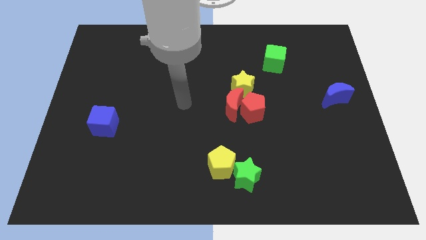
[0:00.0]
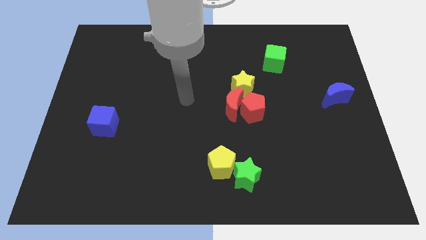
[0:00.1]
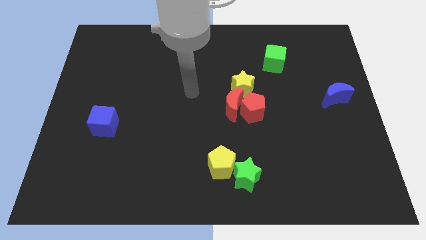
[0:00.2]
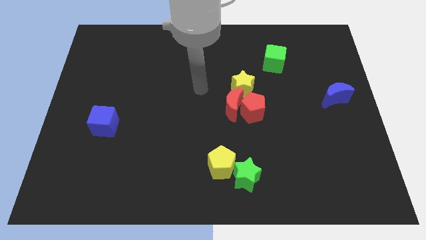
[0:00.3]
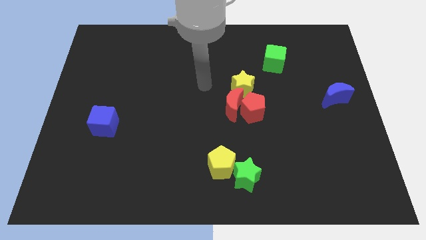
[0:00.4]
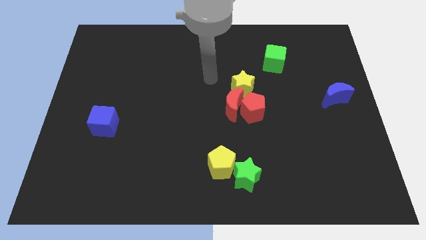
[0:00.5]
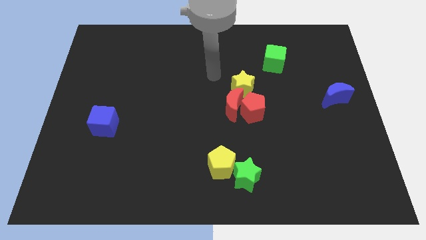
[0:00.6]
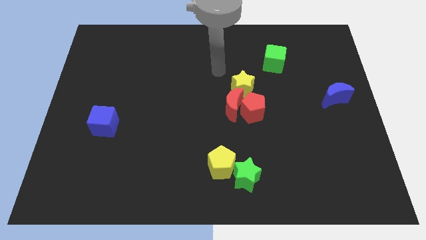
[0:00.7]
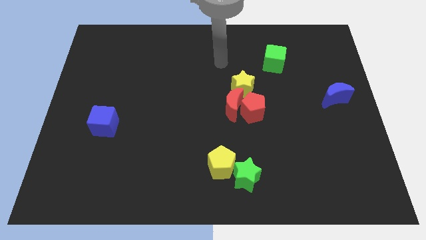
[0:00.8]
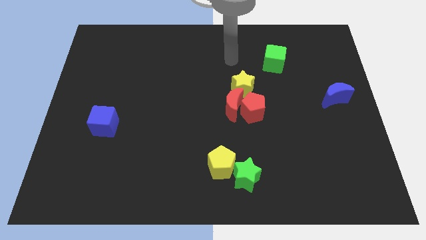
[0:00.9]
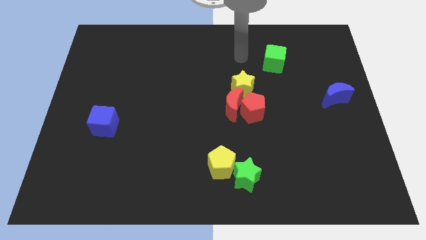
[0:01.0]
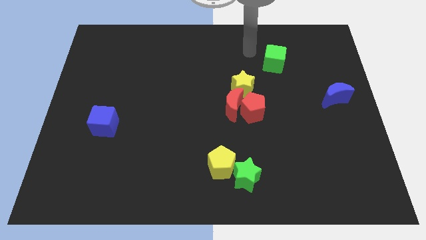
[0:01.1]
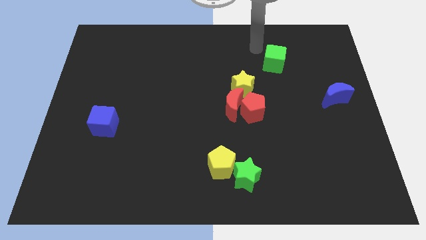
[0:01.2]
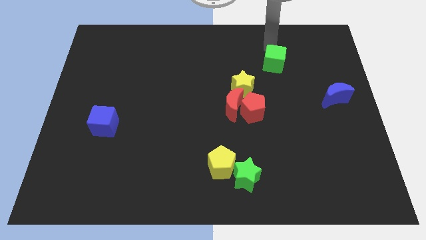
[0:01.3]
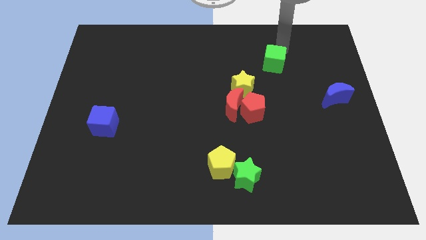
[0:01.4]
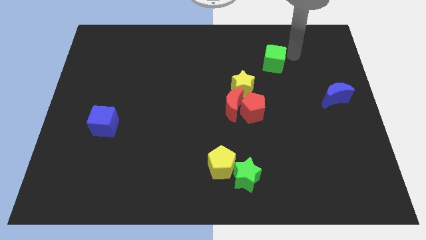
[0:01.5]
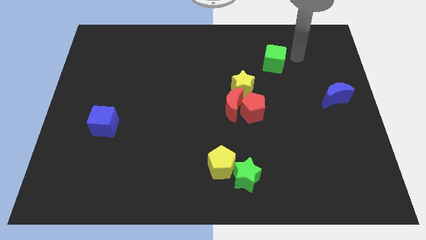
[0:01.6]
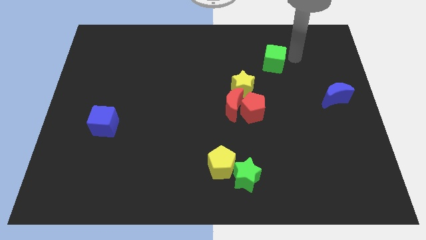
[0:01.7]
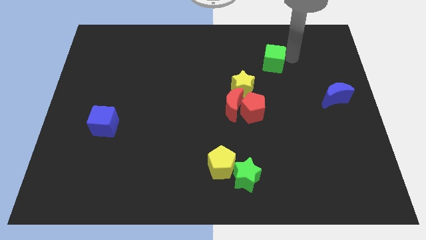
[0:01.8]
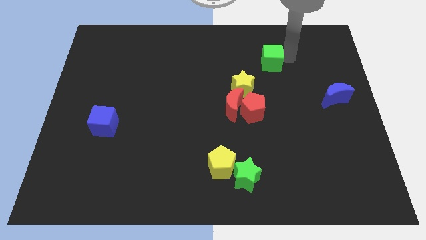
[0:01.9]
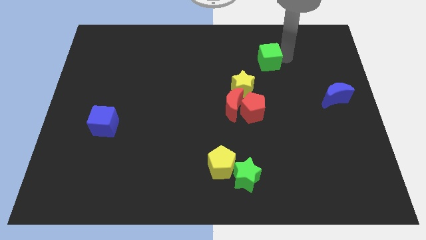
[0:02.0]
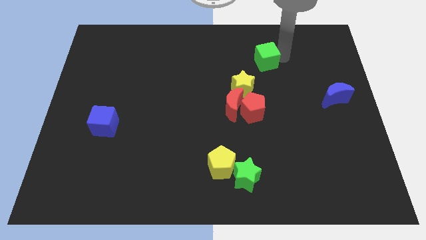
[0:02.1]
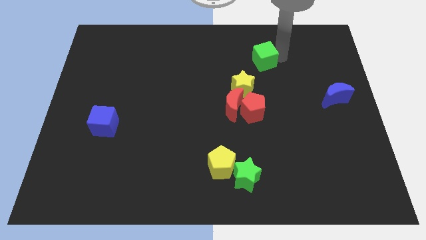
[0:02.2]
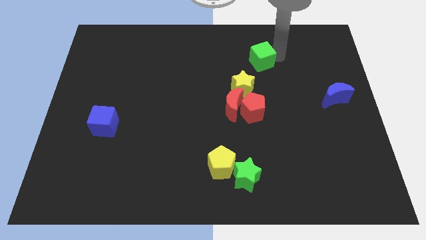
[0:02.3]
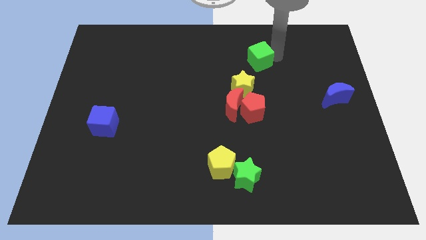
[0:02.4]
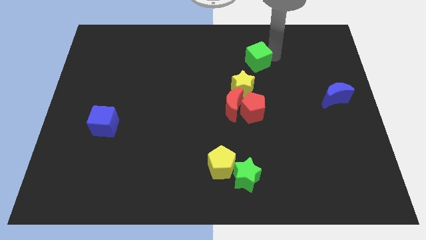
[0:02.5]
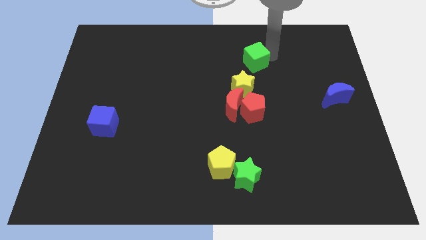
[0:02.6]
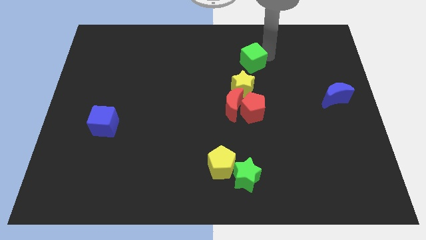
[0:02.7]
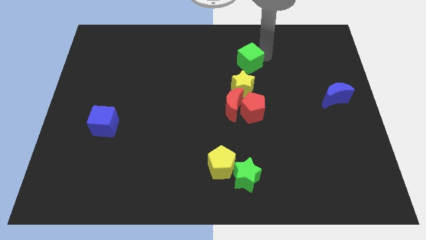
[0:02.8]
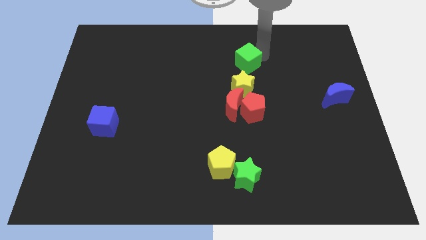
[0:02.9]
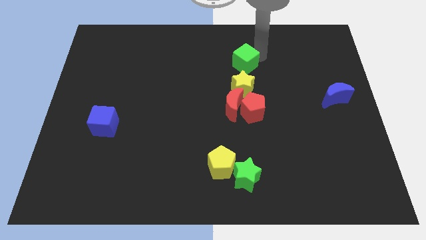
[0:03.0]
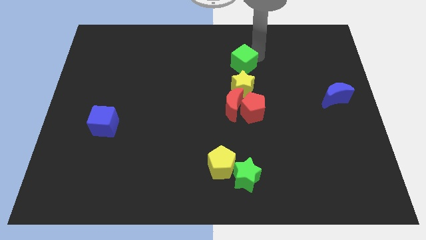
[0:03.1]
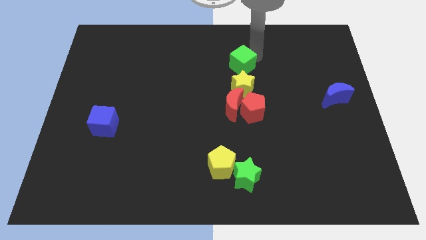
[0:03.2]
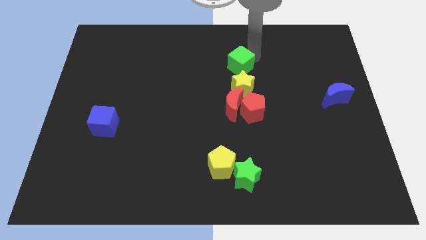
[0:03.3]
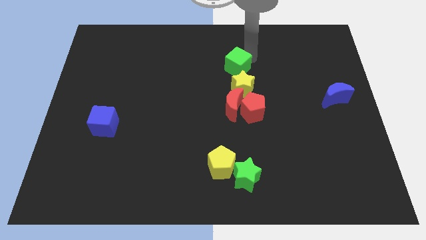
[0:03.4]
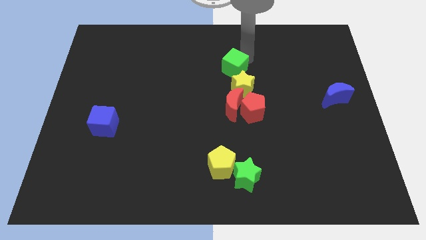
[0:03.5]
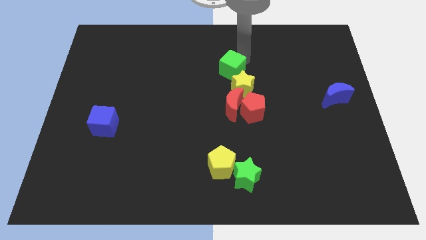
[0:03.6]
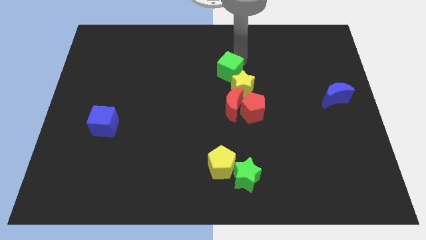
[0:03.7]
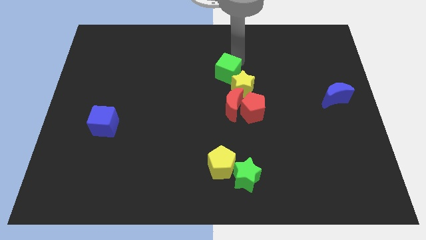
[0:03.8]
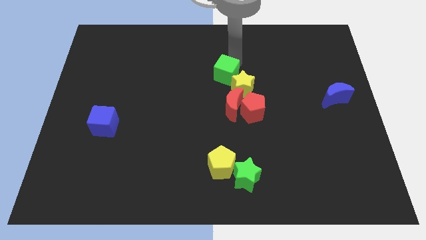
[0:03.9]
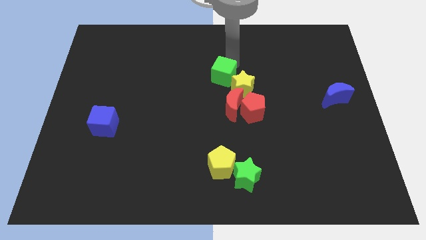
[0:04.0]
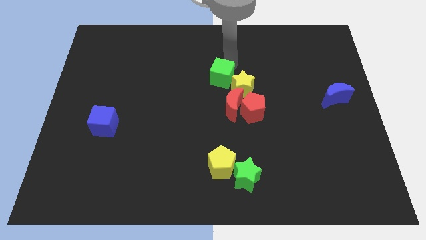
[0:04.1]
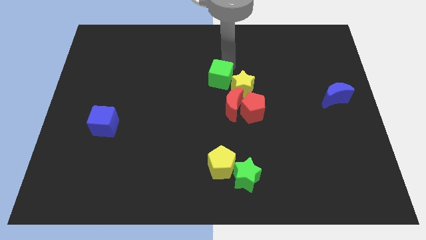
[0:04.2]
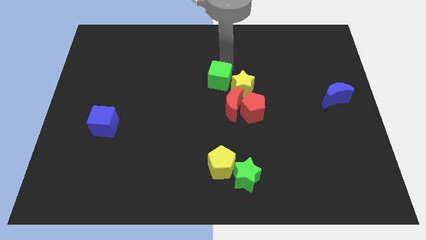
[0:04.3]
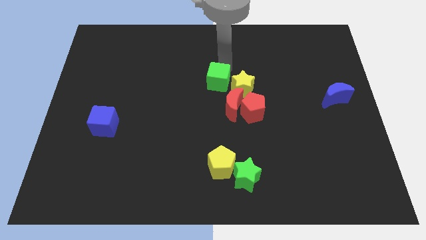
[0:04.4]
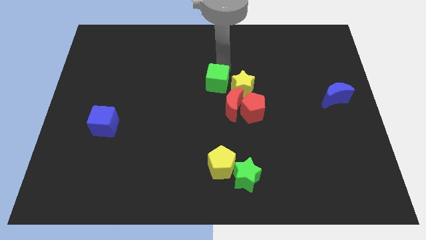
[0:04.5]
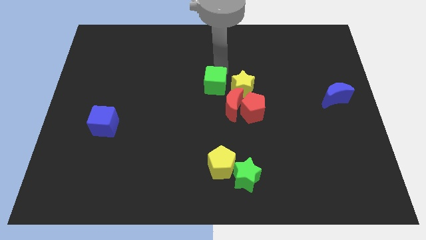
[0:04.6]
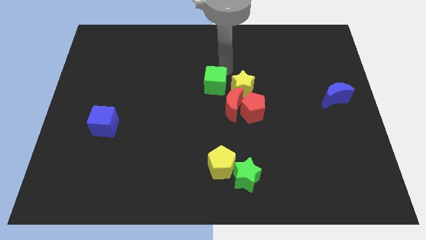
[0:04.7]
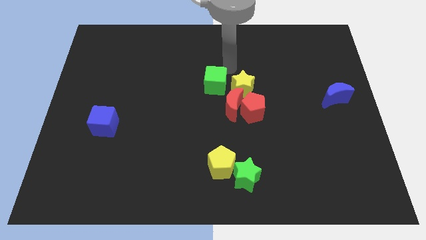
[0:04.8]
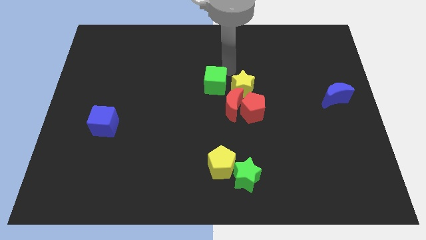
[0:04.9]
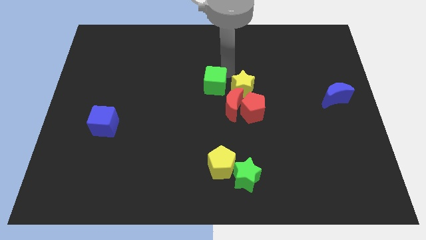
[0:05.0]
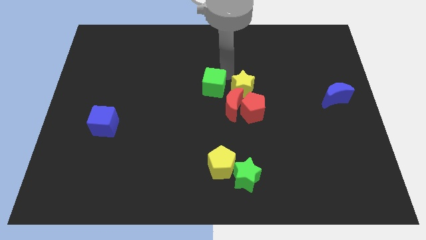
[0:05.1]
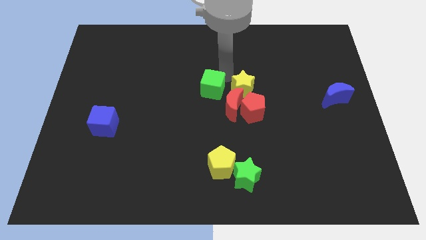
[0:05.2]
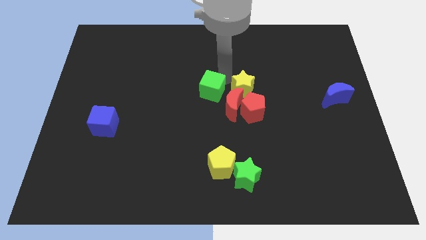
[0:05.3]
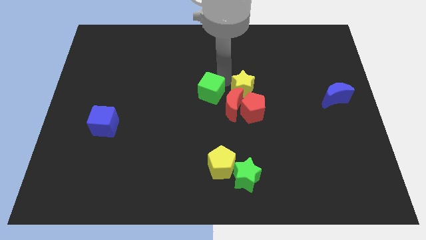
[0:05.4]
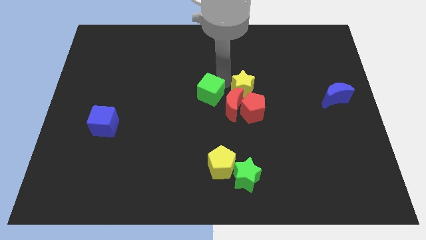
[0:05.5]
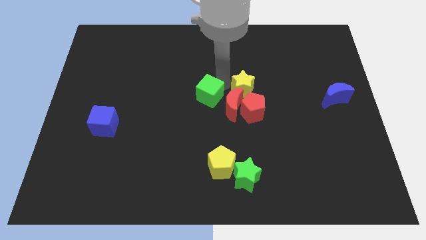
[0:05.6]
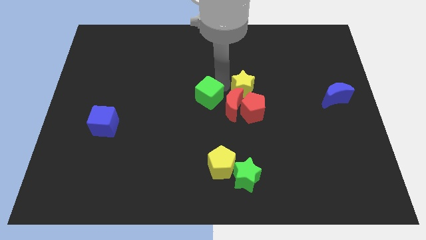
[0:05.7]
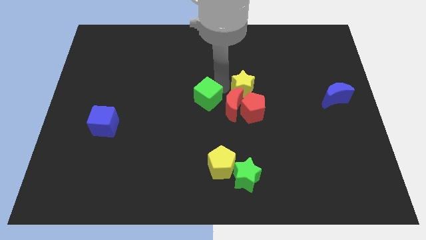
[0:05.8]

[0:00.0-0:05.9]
slide the green cube diagonally downwards and left

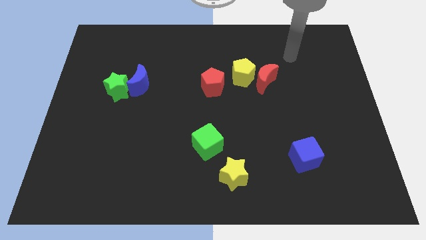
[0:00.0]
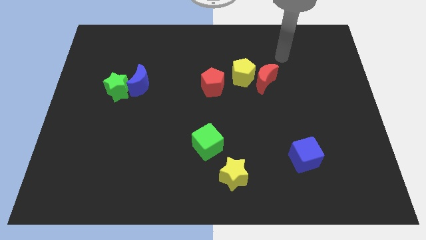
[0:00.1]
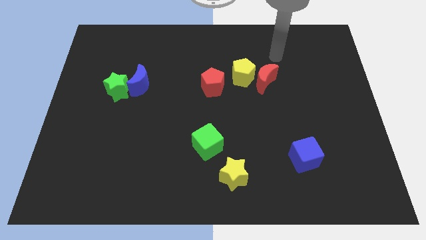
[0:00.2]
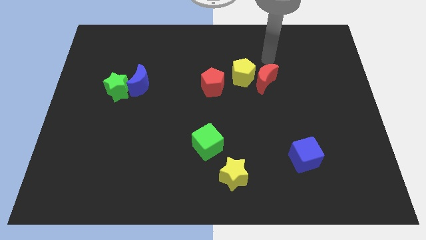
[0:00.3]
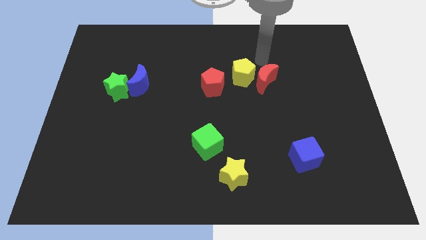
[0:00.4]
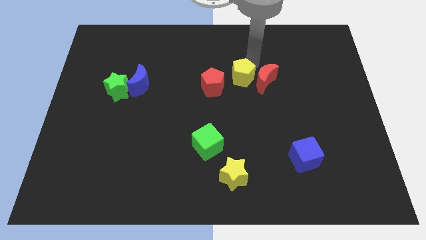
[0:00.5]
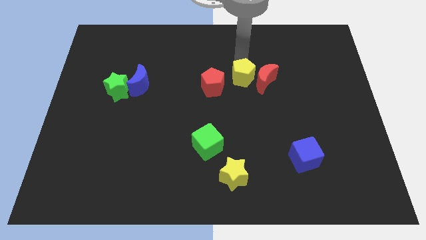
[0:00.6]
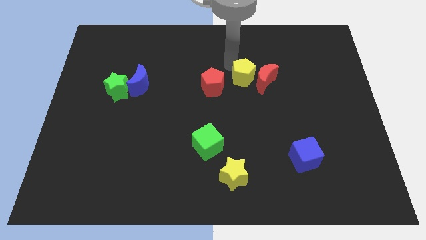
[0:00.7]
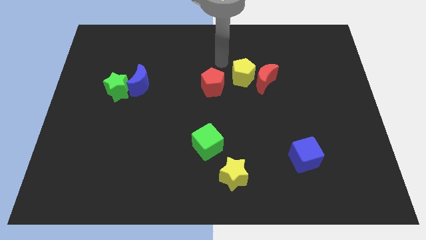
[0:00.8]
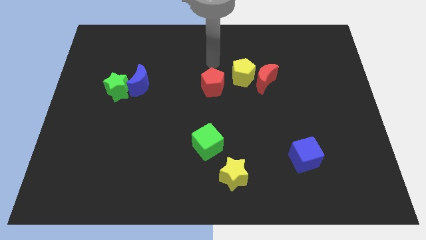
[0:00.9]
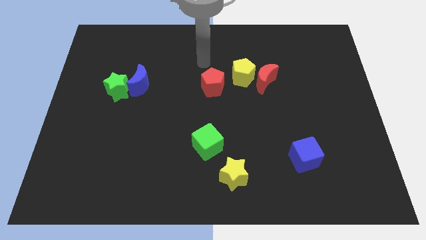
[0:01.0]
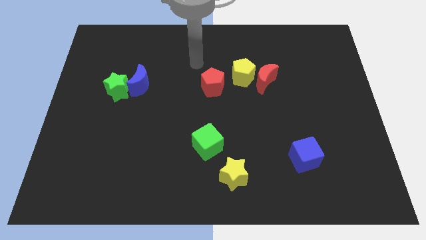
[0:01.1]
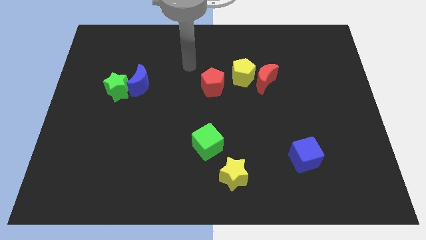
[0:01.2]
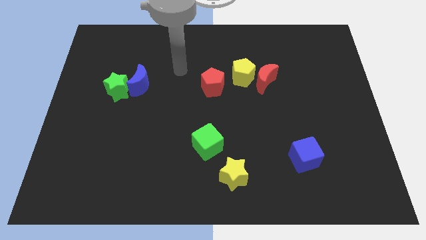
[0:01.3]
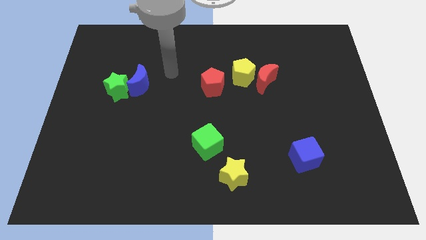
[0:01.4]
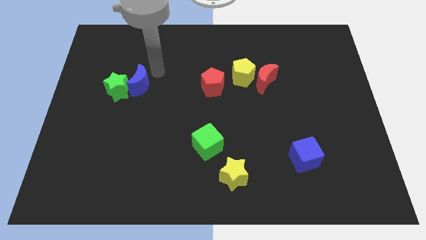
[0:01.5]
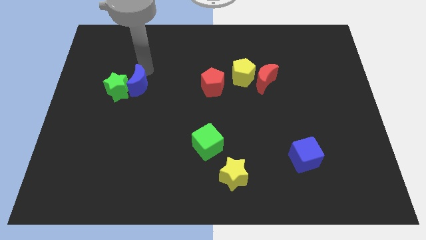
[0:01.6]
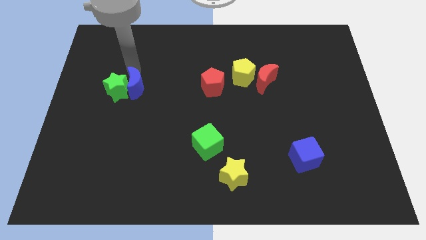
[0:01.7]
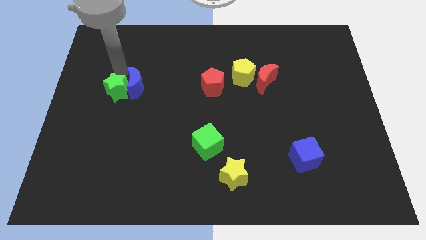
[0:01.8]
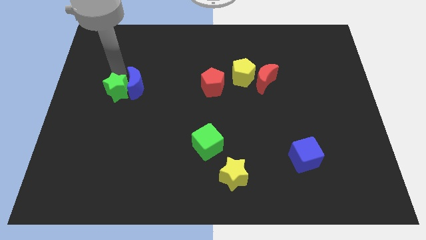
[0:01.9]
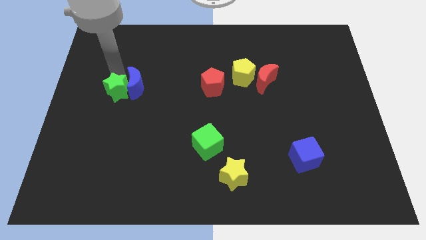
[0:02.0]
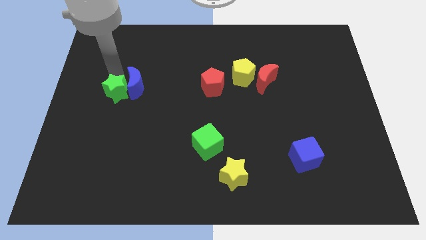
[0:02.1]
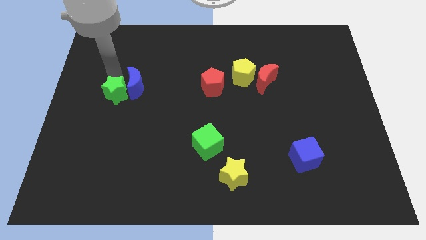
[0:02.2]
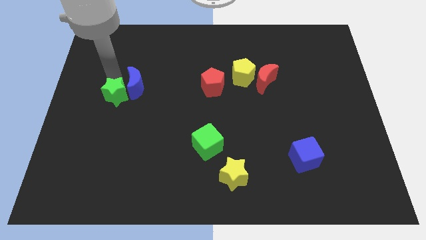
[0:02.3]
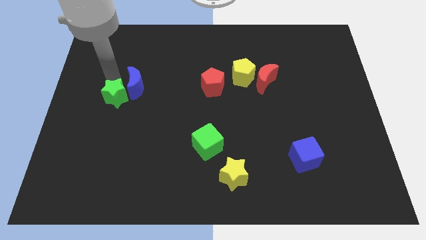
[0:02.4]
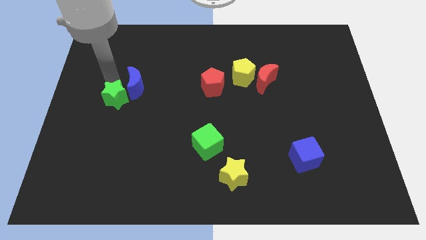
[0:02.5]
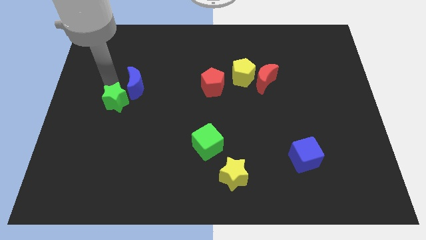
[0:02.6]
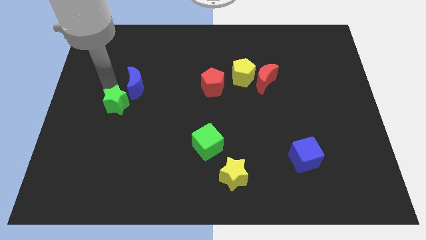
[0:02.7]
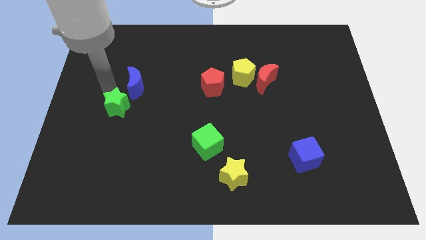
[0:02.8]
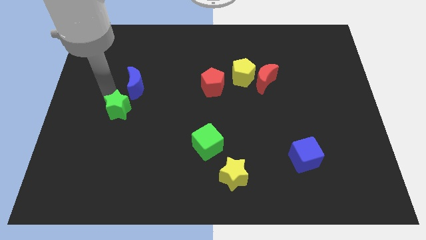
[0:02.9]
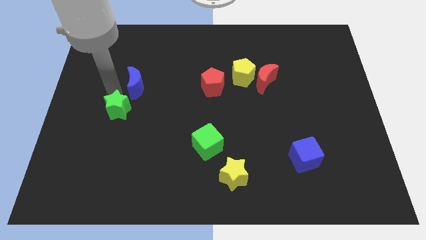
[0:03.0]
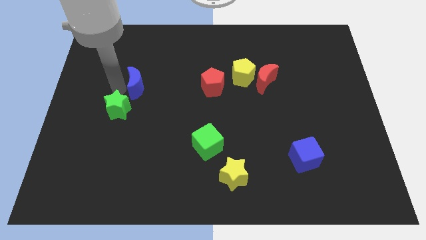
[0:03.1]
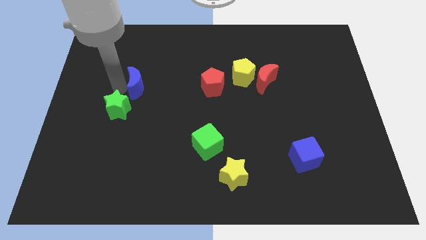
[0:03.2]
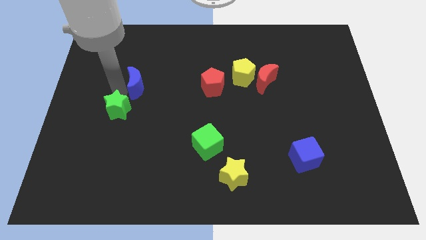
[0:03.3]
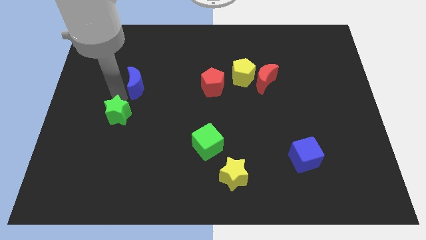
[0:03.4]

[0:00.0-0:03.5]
slightly slide the green star down
